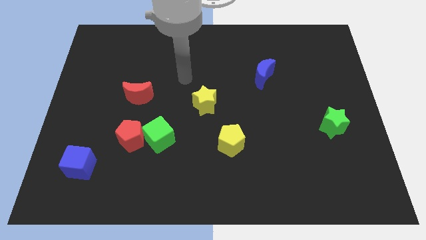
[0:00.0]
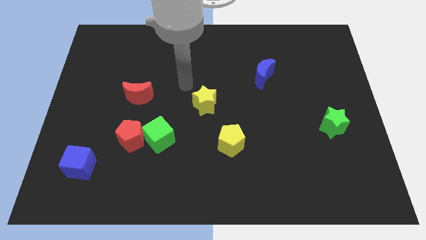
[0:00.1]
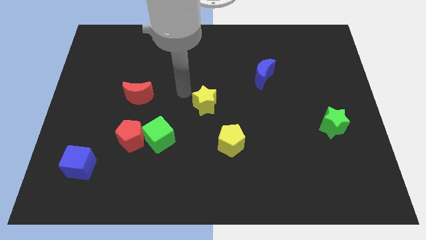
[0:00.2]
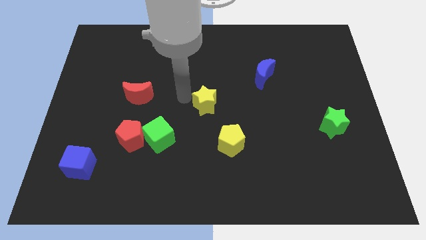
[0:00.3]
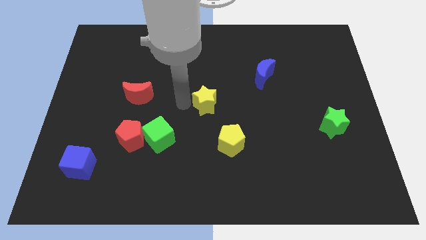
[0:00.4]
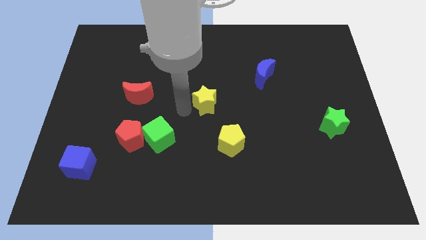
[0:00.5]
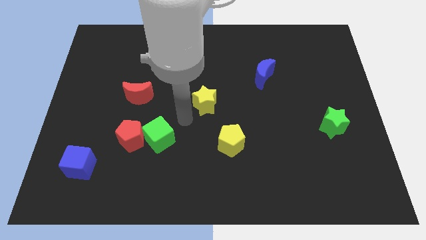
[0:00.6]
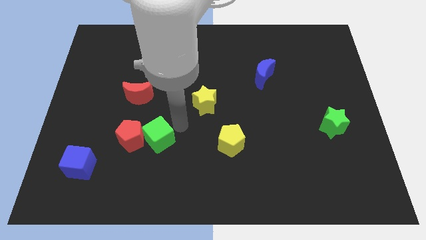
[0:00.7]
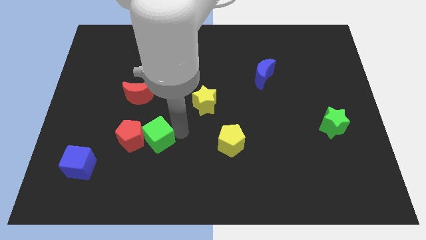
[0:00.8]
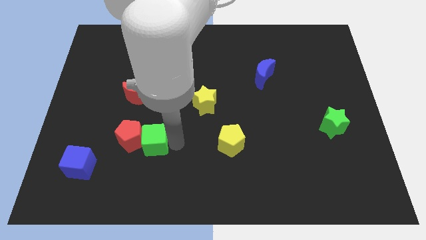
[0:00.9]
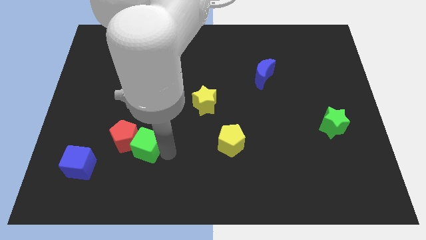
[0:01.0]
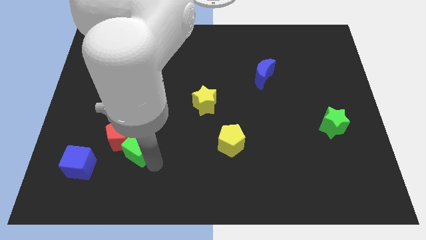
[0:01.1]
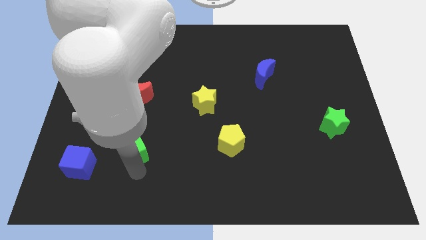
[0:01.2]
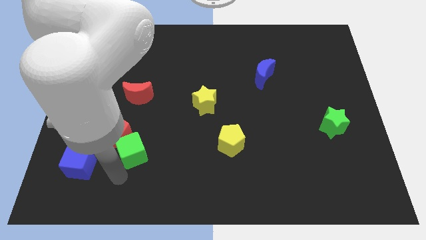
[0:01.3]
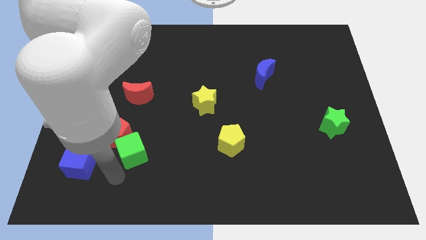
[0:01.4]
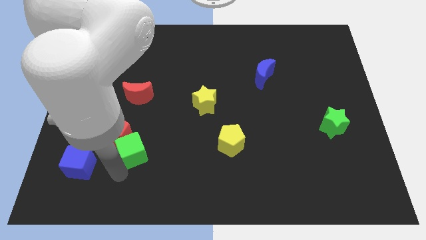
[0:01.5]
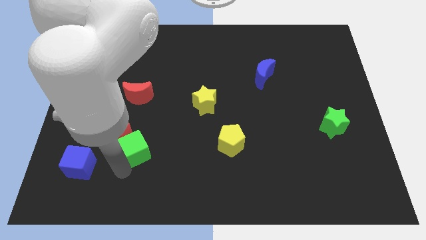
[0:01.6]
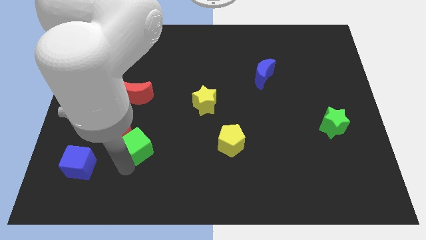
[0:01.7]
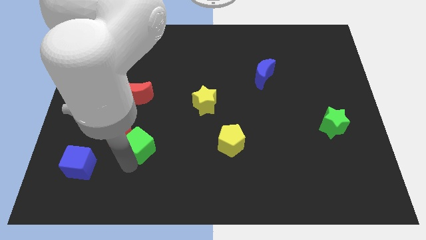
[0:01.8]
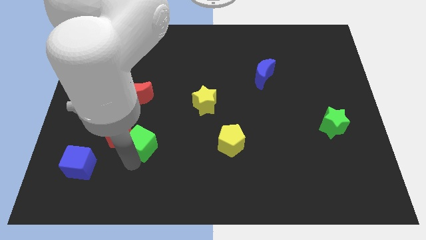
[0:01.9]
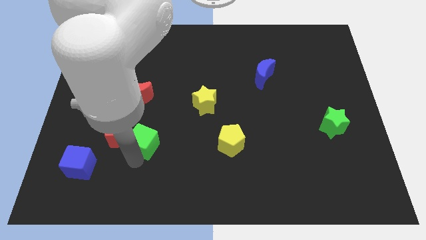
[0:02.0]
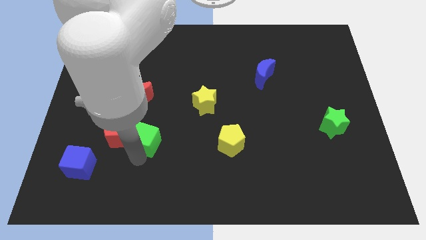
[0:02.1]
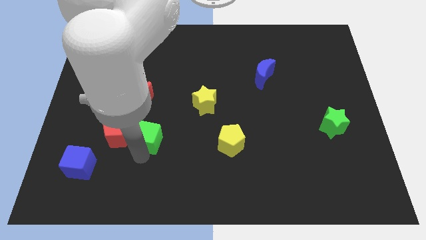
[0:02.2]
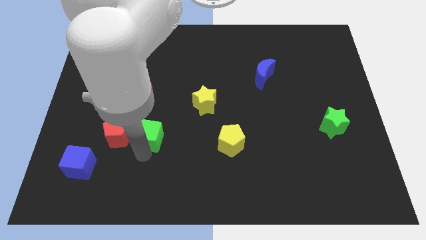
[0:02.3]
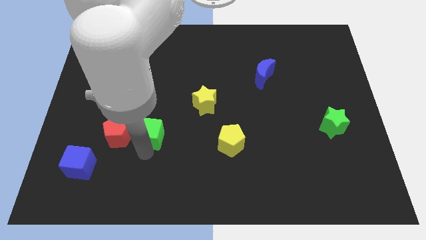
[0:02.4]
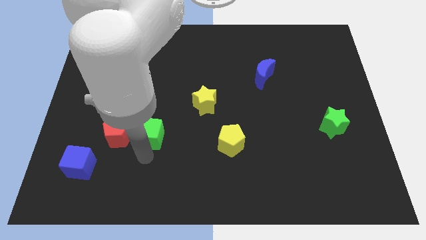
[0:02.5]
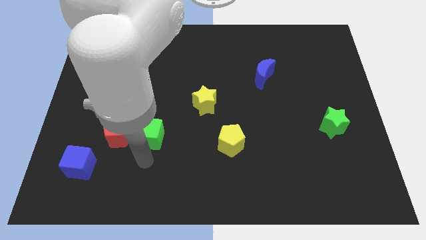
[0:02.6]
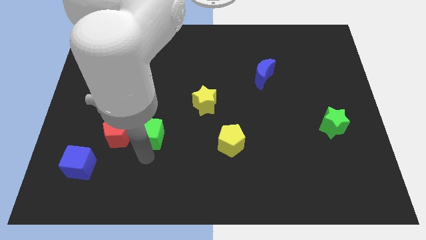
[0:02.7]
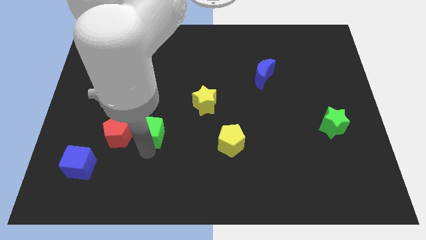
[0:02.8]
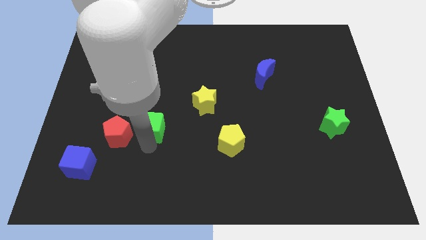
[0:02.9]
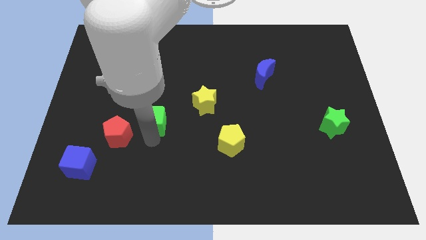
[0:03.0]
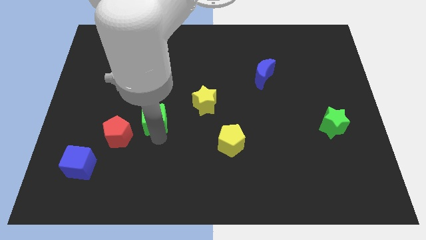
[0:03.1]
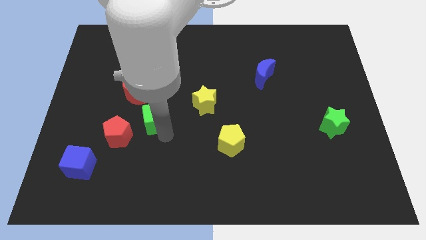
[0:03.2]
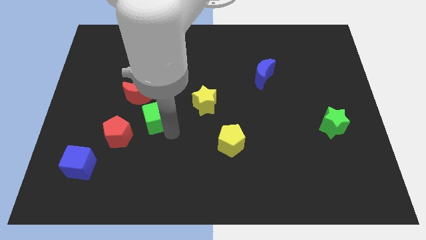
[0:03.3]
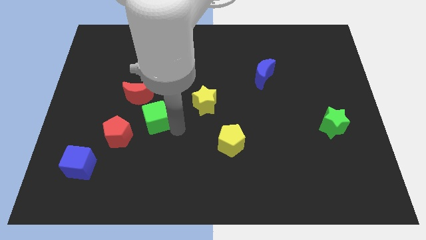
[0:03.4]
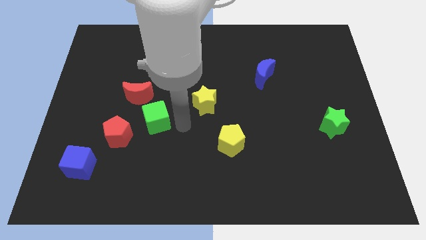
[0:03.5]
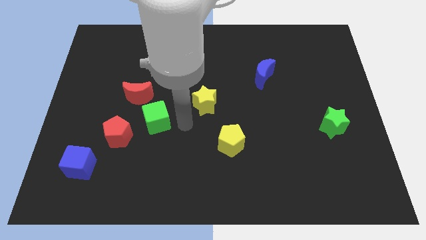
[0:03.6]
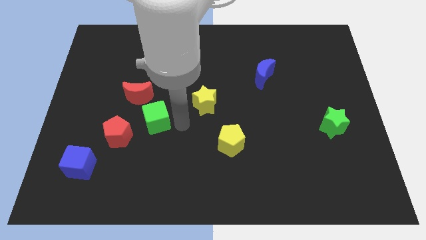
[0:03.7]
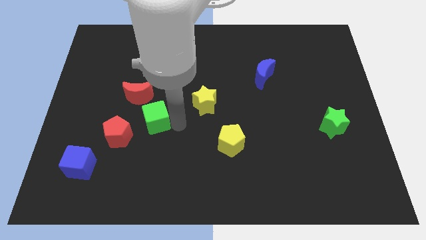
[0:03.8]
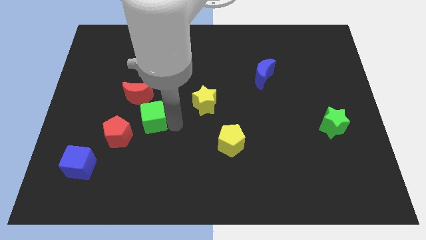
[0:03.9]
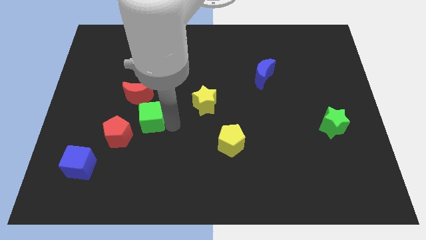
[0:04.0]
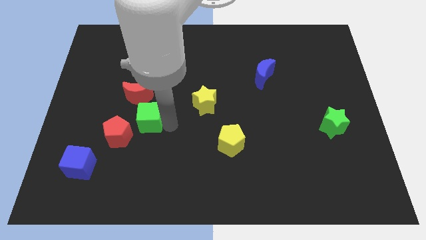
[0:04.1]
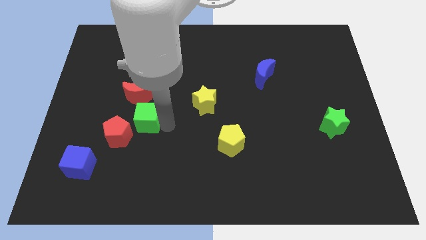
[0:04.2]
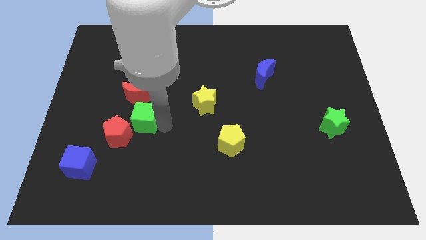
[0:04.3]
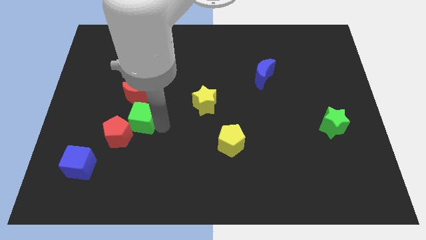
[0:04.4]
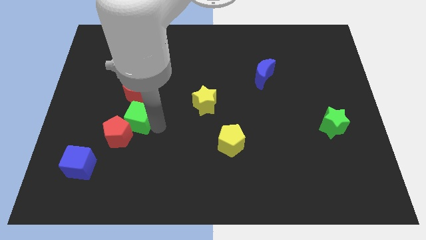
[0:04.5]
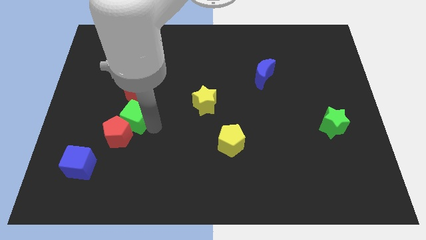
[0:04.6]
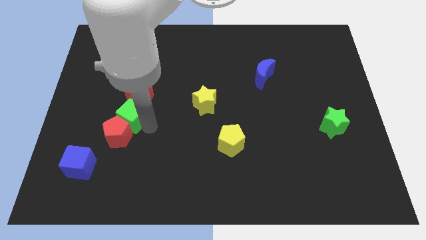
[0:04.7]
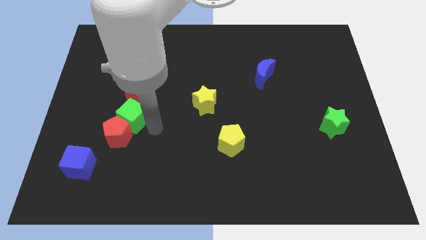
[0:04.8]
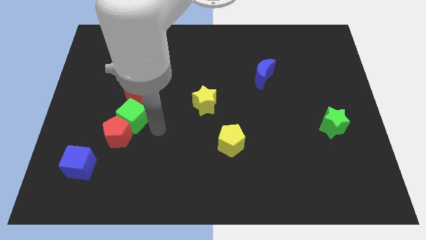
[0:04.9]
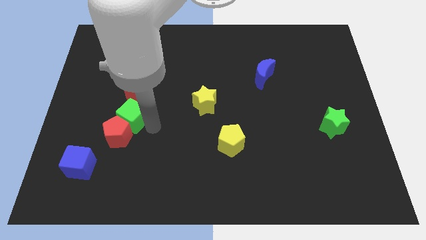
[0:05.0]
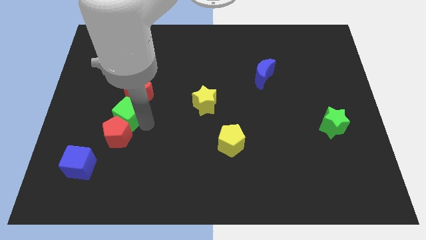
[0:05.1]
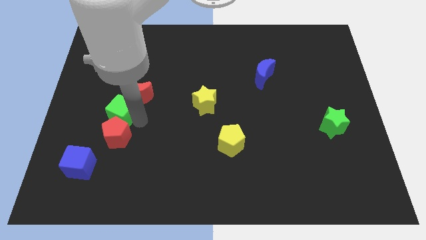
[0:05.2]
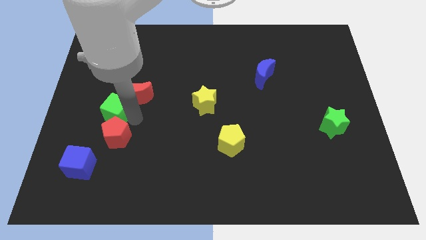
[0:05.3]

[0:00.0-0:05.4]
put the green cube just left of the red moon

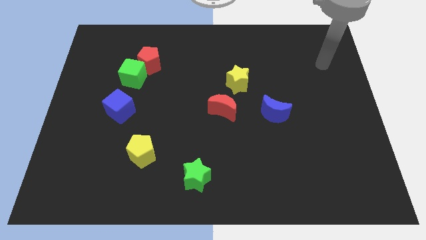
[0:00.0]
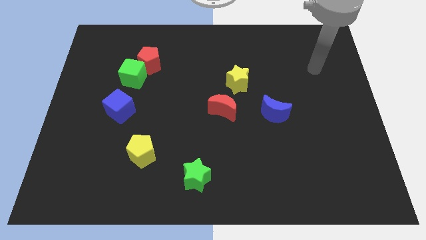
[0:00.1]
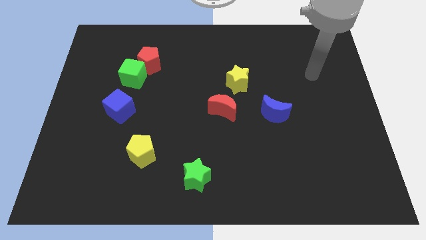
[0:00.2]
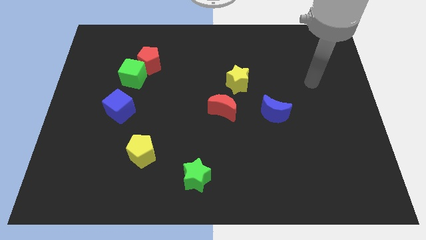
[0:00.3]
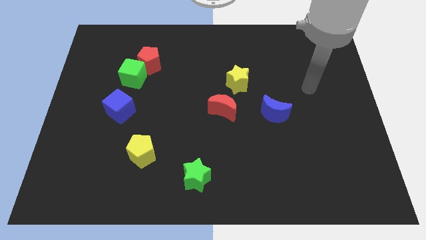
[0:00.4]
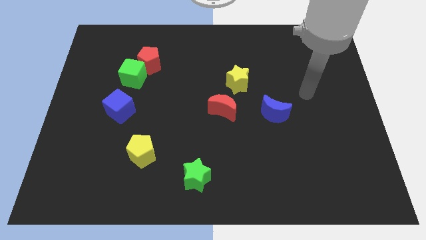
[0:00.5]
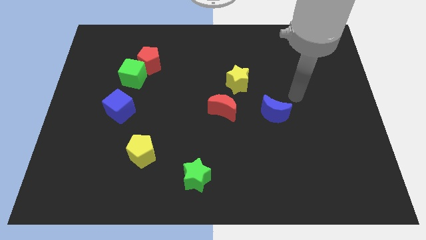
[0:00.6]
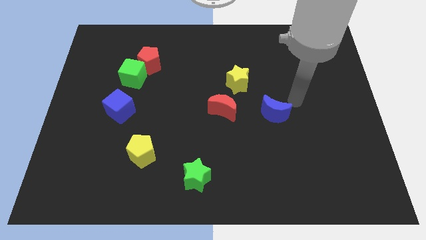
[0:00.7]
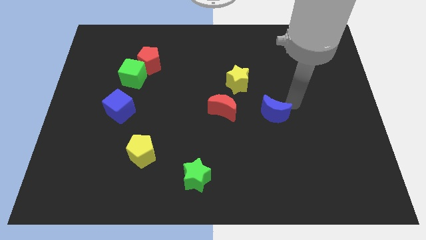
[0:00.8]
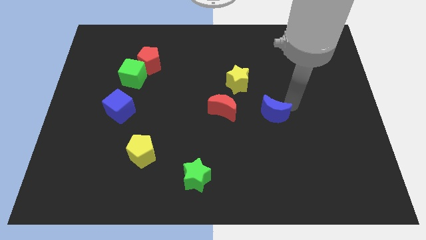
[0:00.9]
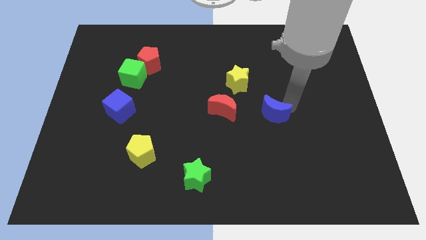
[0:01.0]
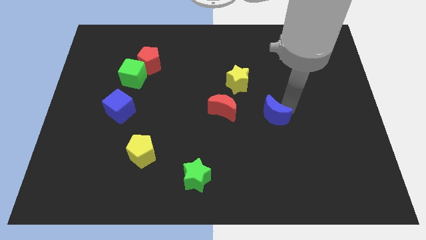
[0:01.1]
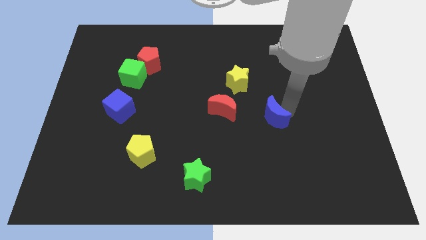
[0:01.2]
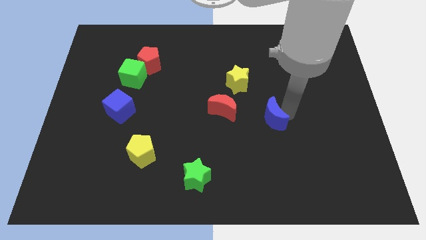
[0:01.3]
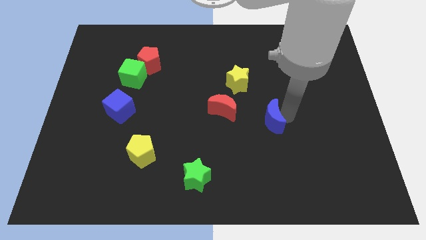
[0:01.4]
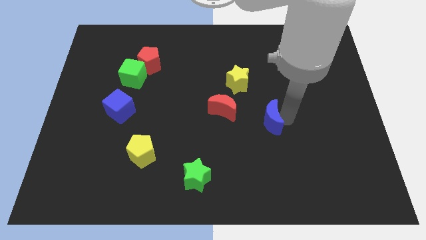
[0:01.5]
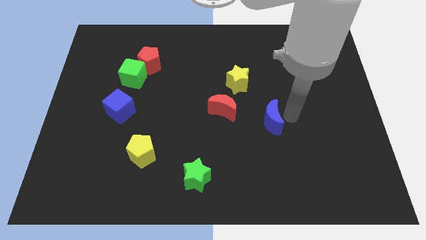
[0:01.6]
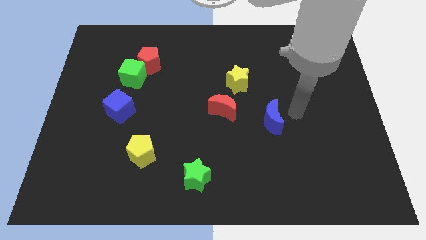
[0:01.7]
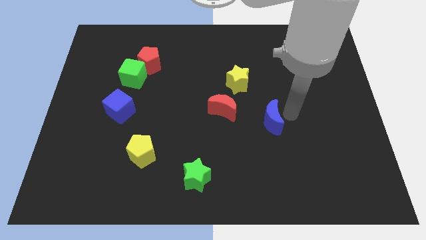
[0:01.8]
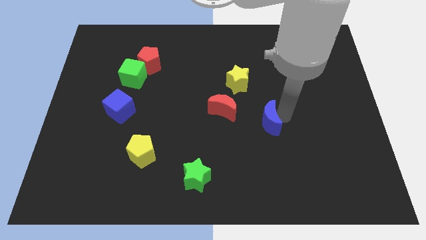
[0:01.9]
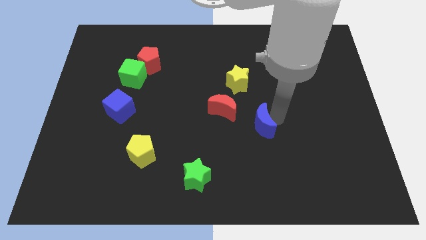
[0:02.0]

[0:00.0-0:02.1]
push the blue moon to the bottom right of the red moon
